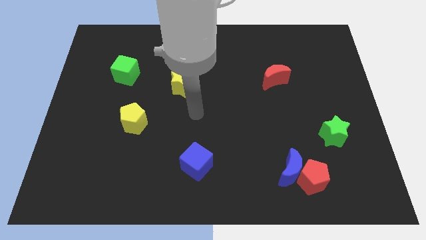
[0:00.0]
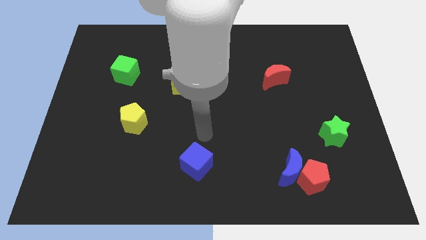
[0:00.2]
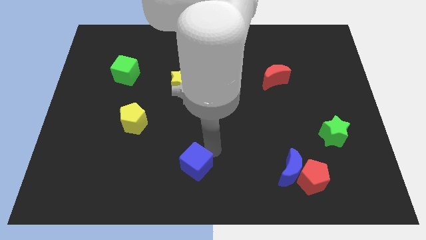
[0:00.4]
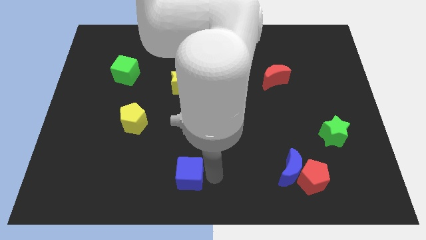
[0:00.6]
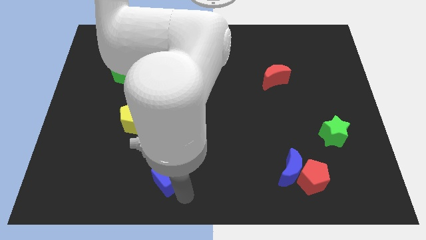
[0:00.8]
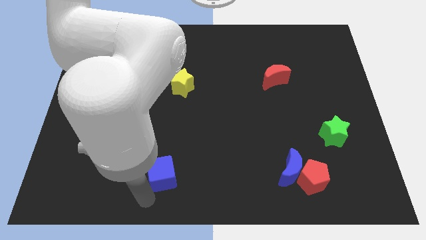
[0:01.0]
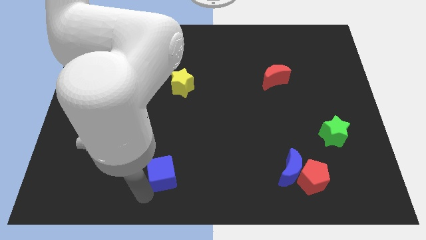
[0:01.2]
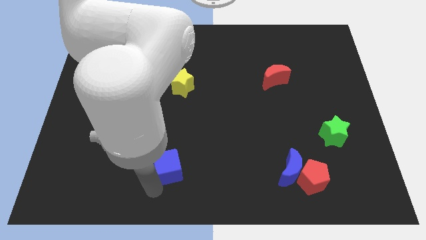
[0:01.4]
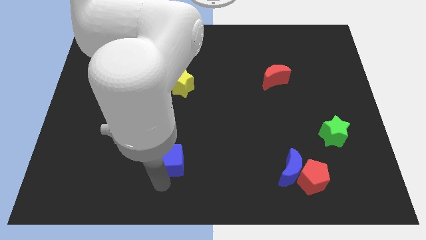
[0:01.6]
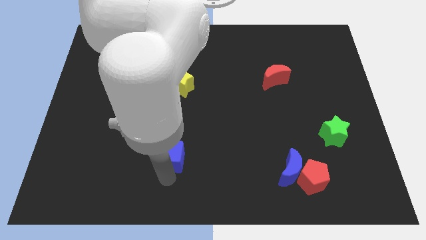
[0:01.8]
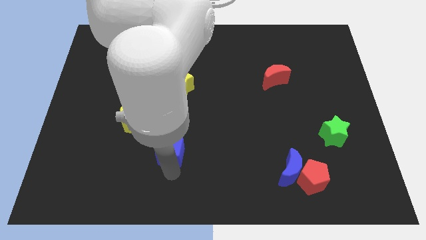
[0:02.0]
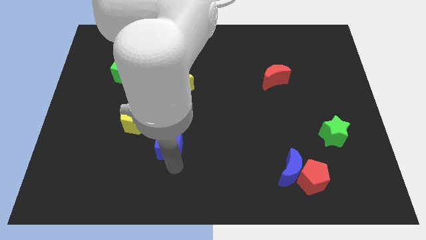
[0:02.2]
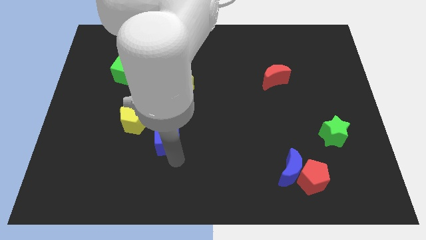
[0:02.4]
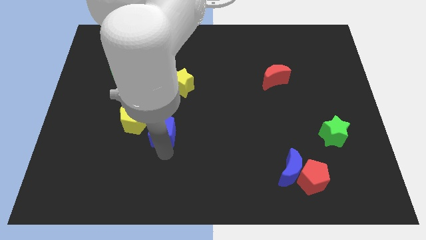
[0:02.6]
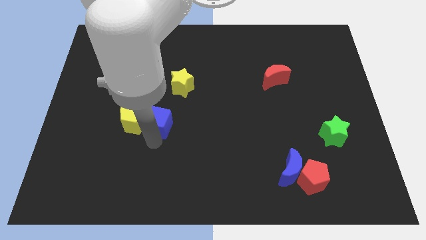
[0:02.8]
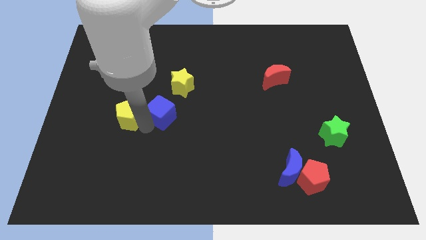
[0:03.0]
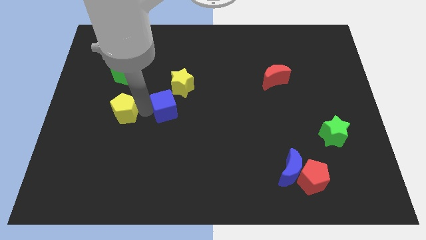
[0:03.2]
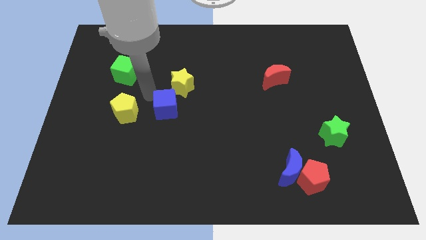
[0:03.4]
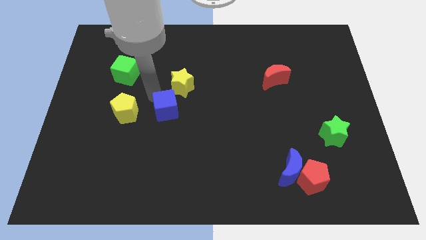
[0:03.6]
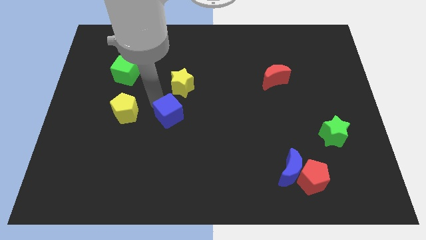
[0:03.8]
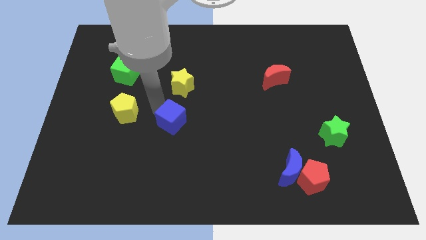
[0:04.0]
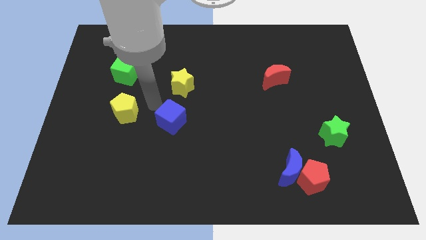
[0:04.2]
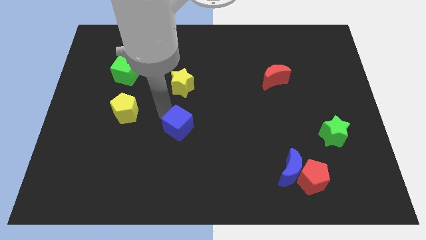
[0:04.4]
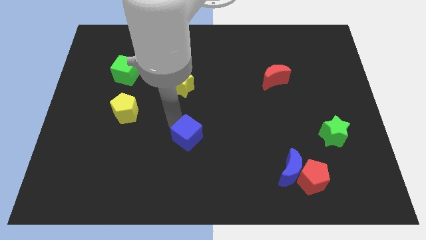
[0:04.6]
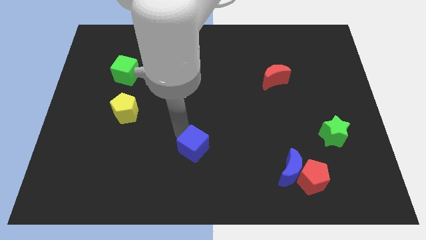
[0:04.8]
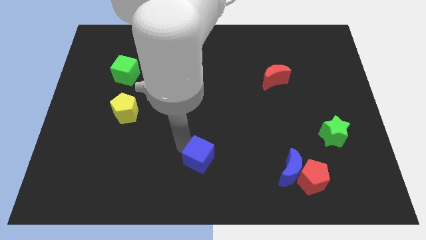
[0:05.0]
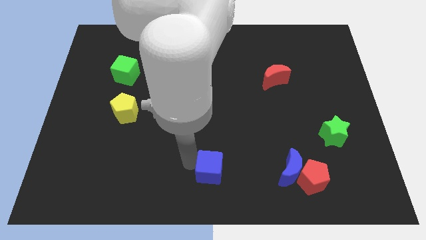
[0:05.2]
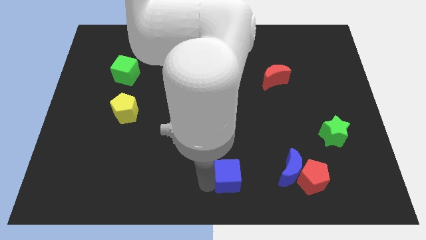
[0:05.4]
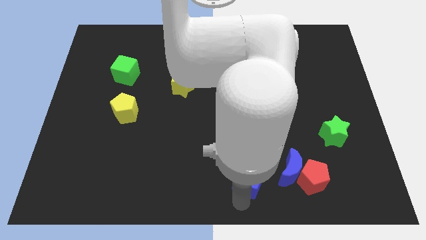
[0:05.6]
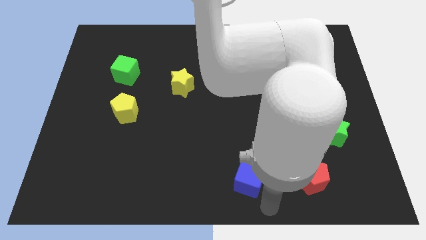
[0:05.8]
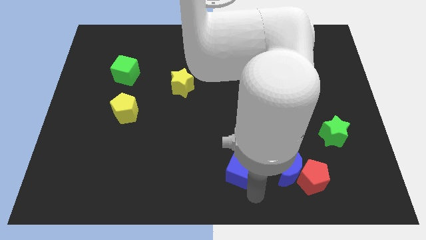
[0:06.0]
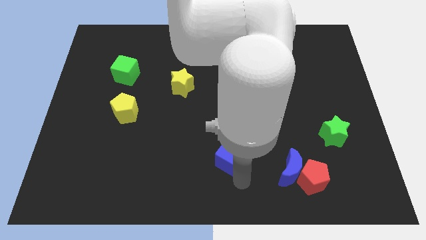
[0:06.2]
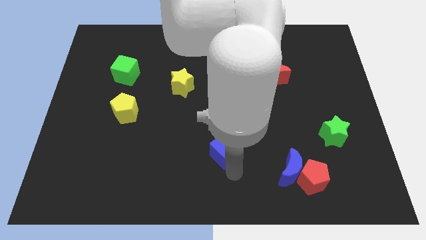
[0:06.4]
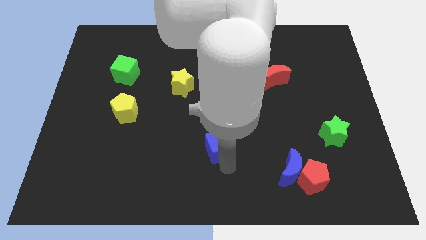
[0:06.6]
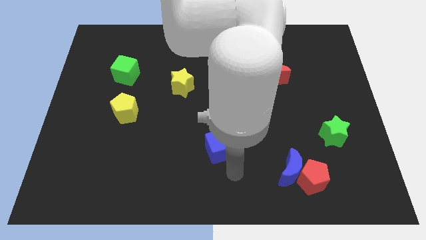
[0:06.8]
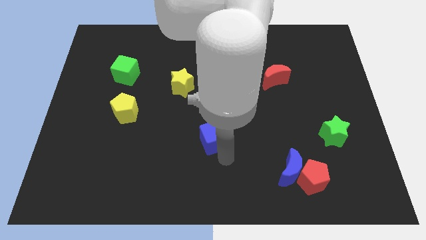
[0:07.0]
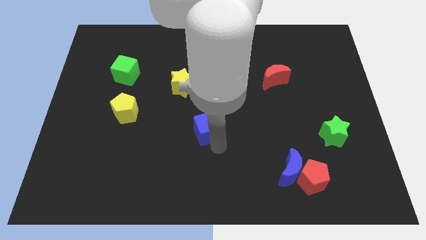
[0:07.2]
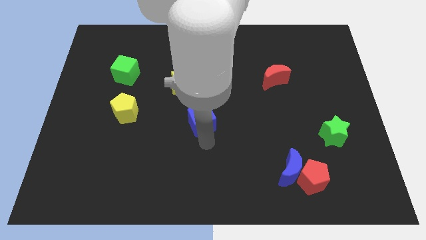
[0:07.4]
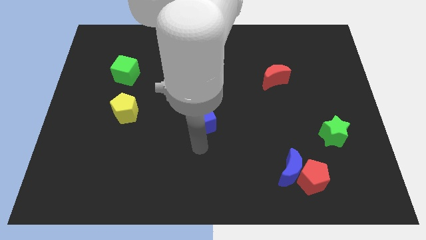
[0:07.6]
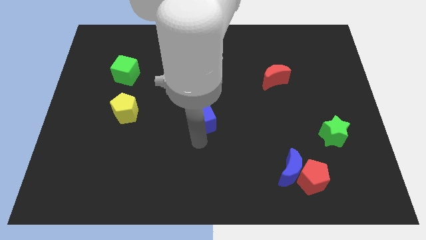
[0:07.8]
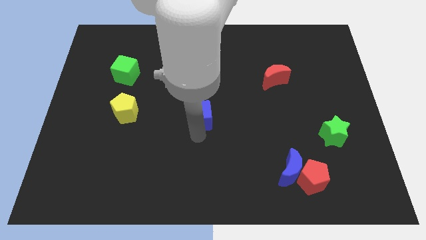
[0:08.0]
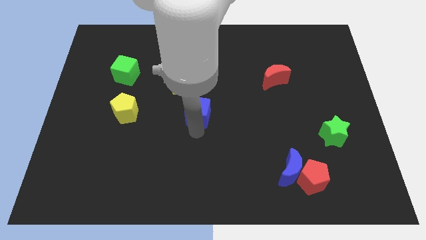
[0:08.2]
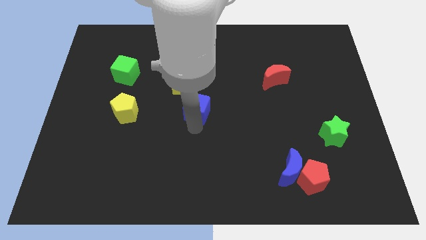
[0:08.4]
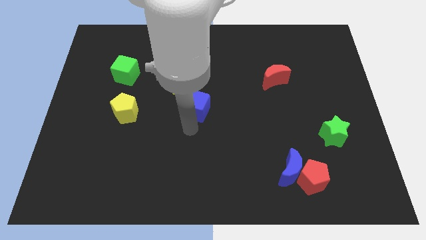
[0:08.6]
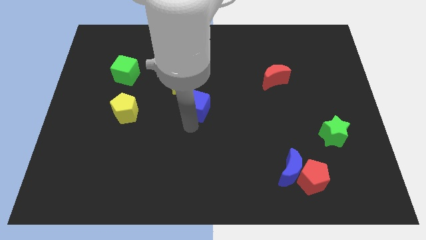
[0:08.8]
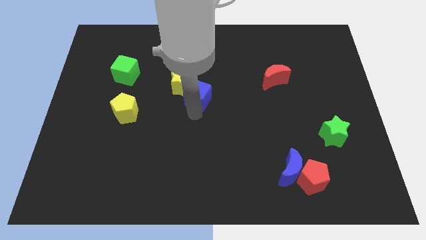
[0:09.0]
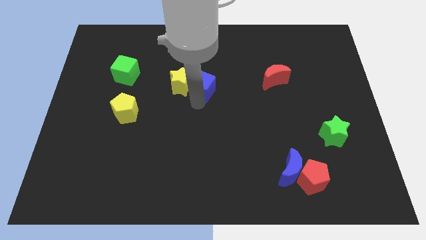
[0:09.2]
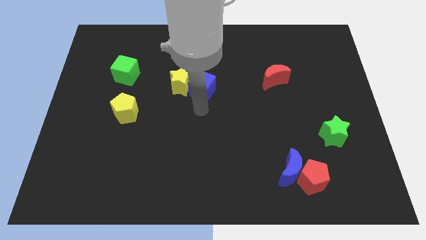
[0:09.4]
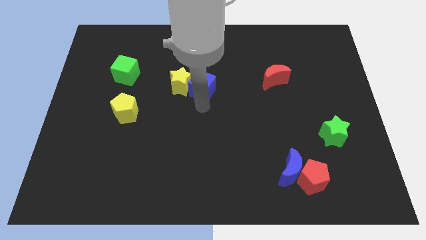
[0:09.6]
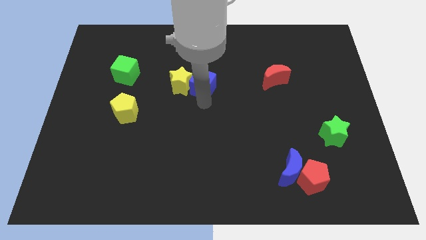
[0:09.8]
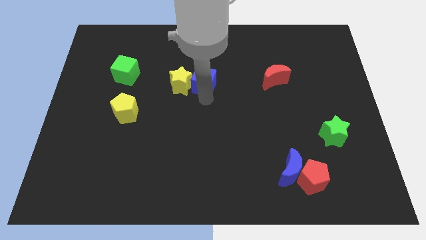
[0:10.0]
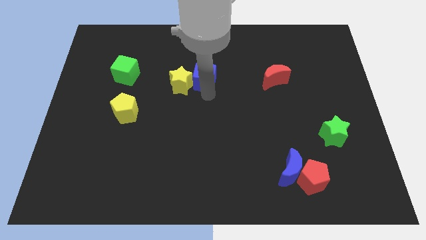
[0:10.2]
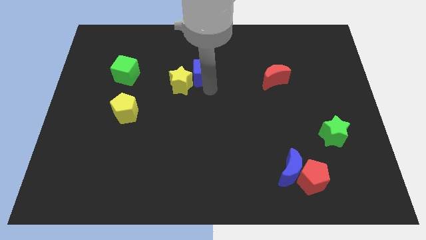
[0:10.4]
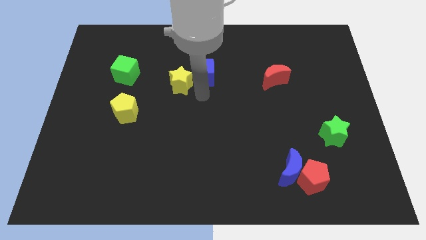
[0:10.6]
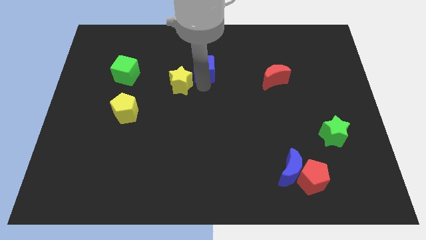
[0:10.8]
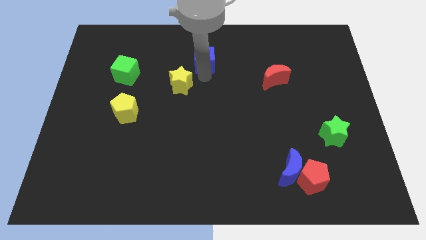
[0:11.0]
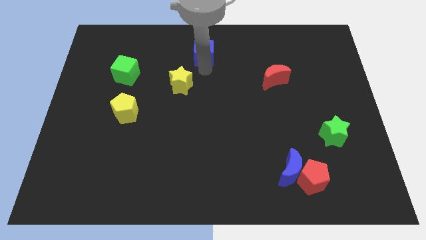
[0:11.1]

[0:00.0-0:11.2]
put the blue cube to the top side

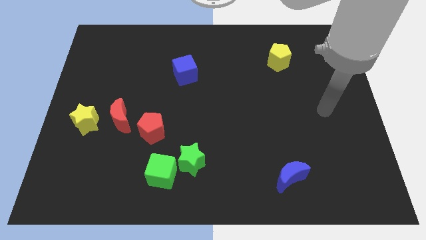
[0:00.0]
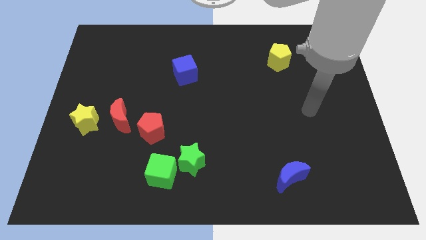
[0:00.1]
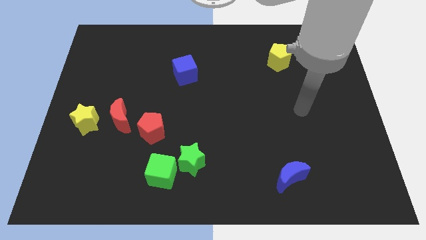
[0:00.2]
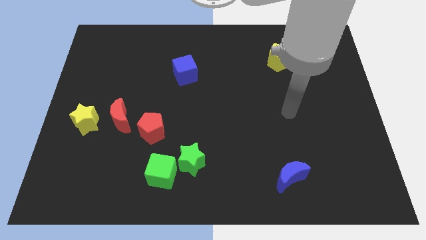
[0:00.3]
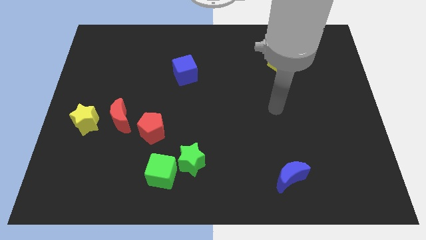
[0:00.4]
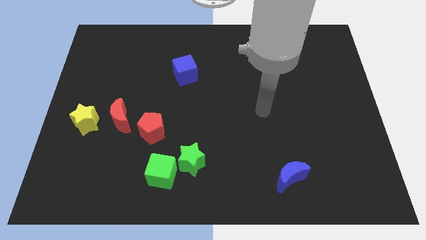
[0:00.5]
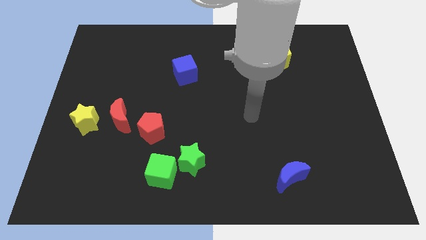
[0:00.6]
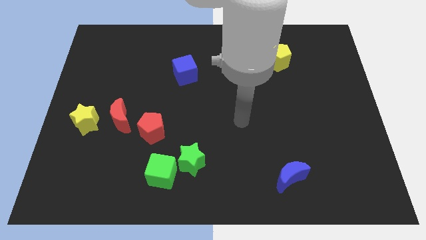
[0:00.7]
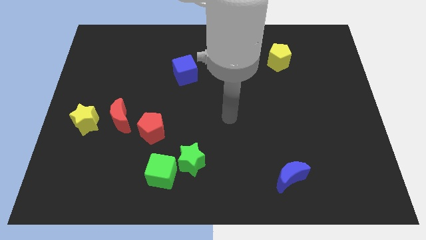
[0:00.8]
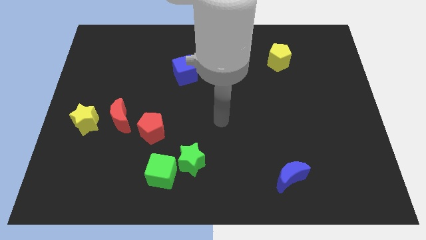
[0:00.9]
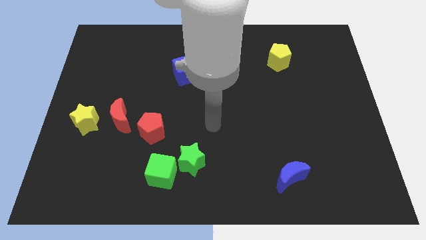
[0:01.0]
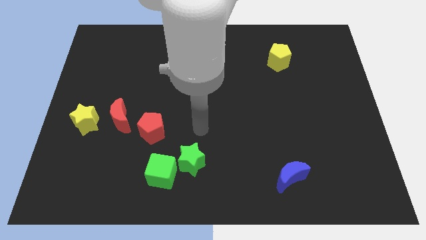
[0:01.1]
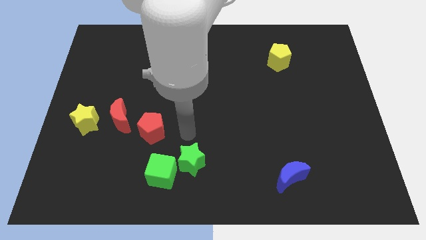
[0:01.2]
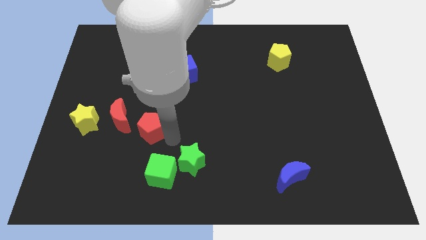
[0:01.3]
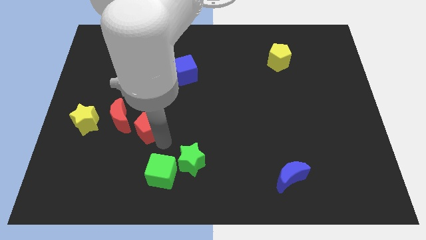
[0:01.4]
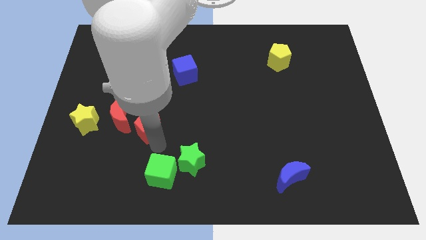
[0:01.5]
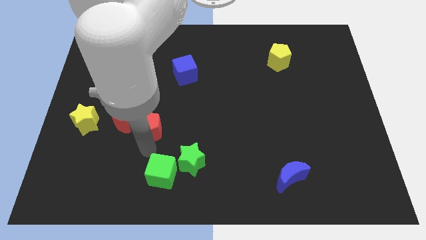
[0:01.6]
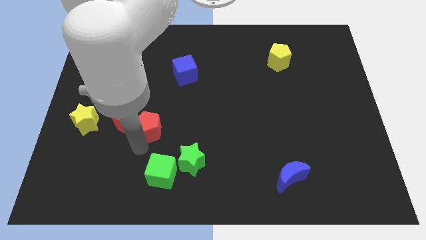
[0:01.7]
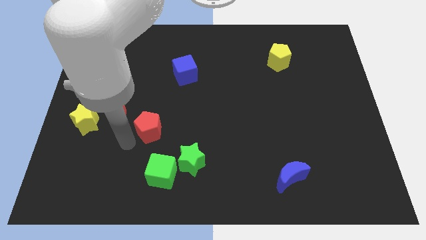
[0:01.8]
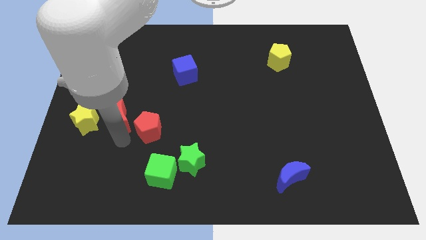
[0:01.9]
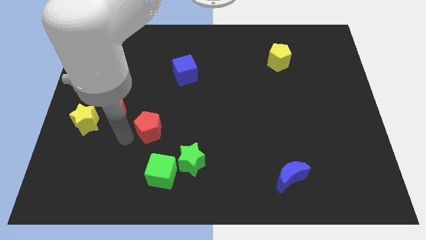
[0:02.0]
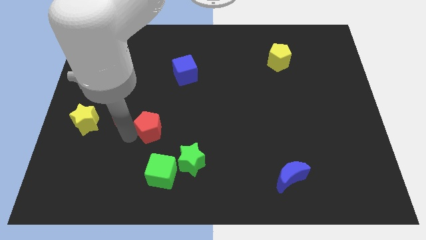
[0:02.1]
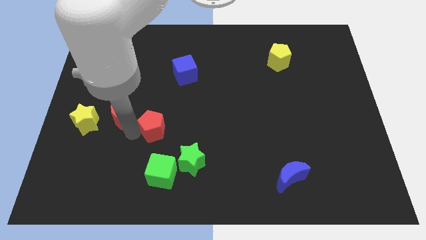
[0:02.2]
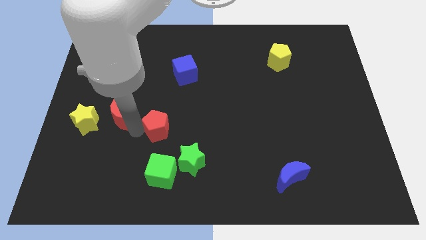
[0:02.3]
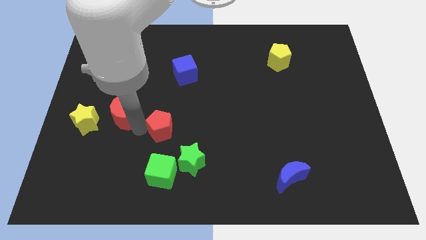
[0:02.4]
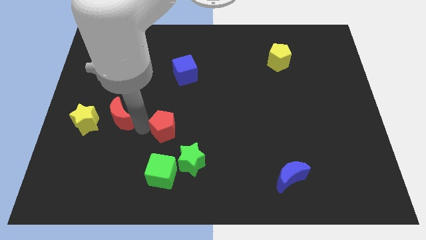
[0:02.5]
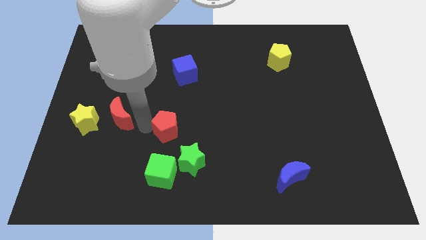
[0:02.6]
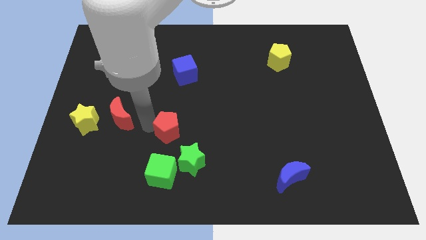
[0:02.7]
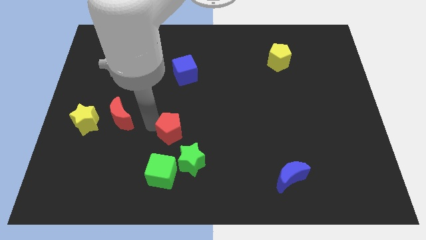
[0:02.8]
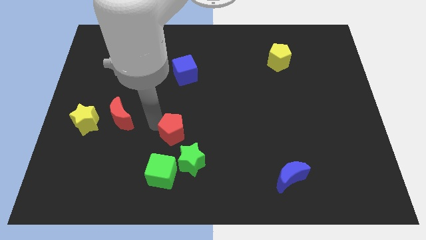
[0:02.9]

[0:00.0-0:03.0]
slide the red pentagon to the center of the board
